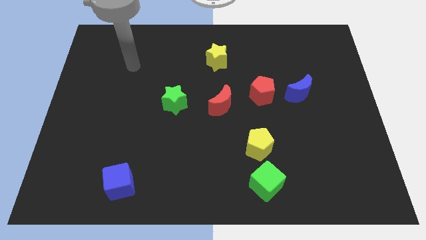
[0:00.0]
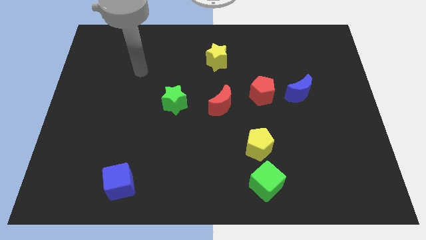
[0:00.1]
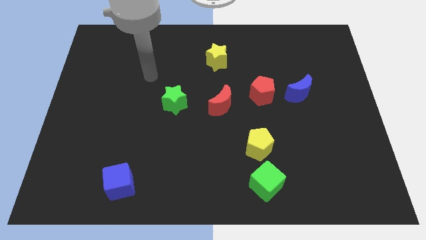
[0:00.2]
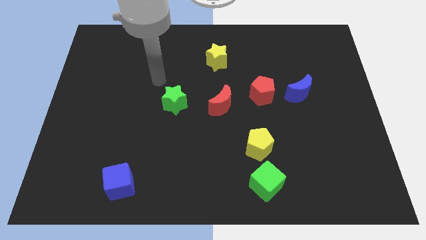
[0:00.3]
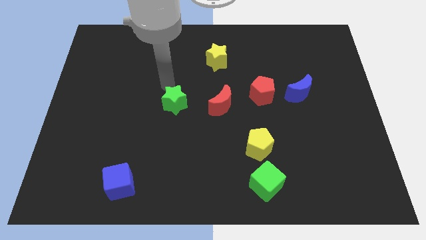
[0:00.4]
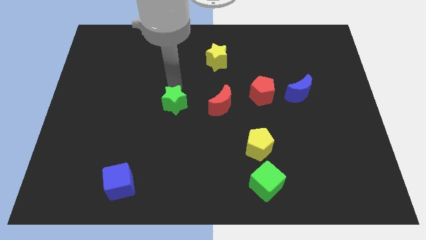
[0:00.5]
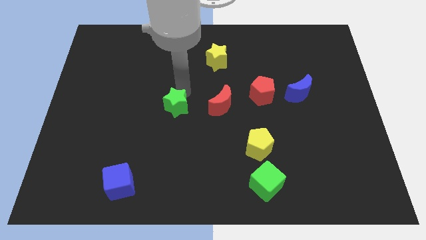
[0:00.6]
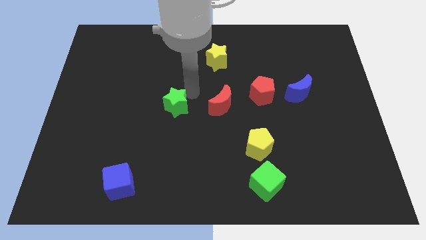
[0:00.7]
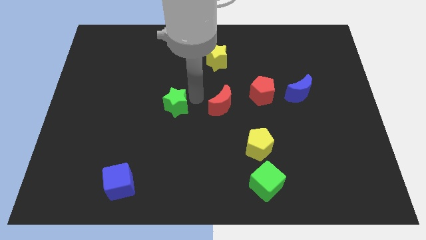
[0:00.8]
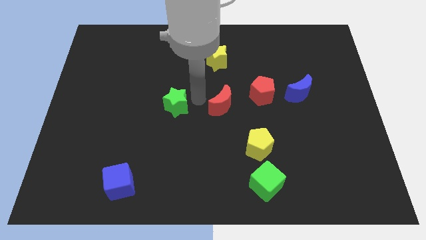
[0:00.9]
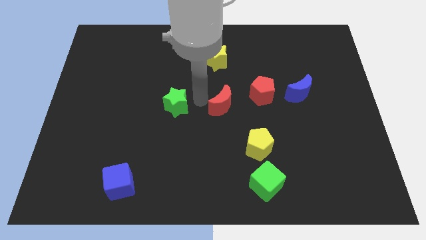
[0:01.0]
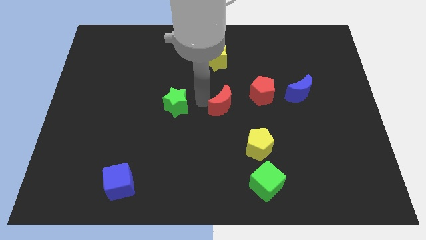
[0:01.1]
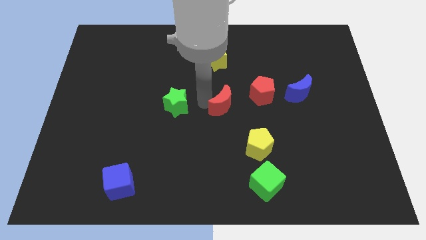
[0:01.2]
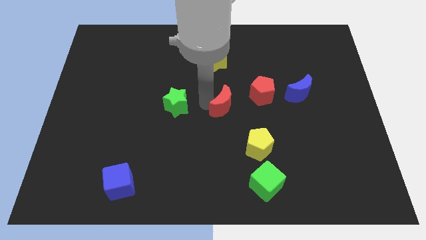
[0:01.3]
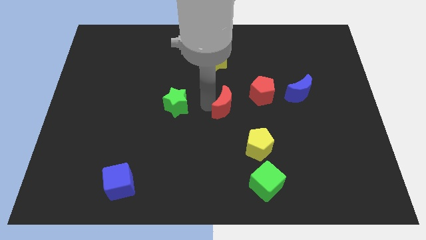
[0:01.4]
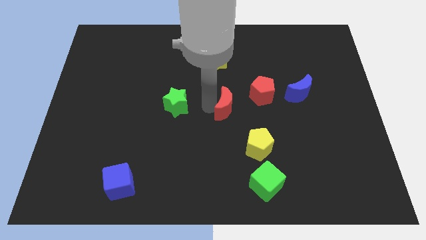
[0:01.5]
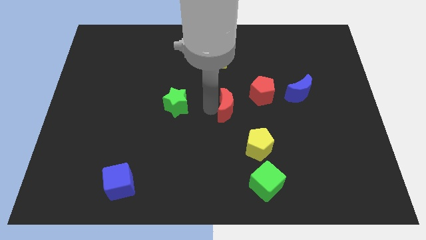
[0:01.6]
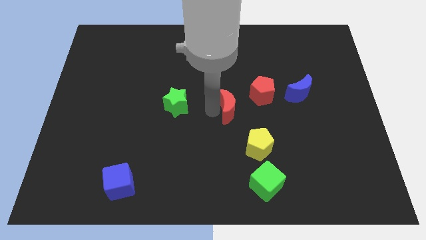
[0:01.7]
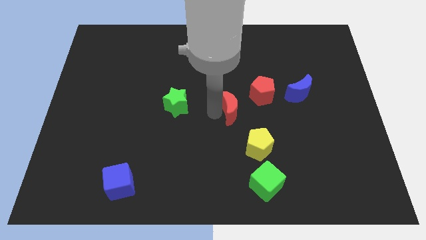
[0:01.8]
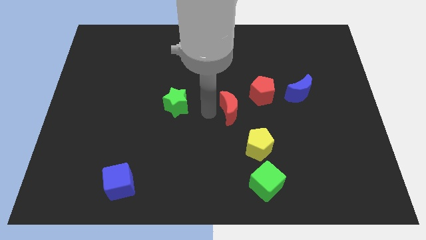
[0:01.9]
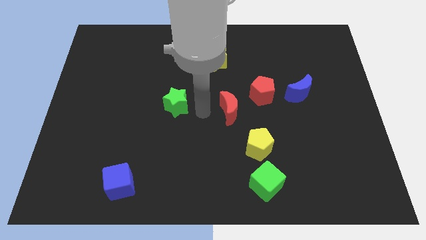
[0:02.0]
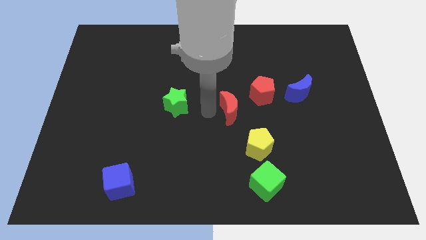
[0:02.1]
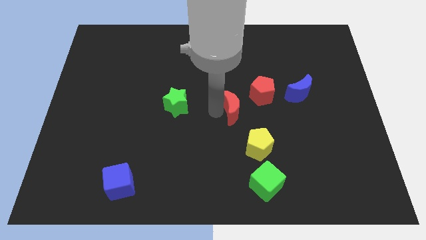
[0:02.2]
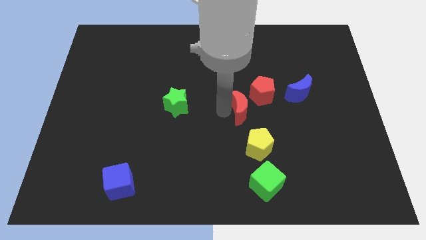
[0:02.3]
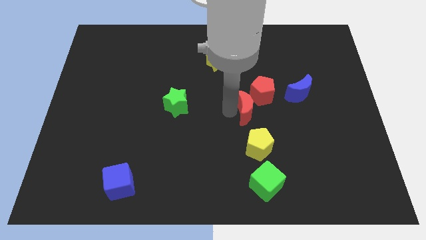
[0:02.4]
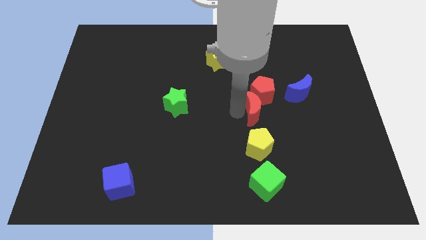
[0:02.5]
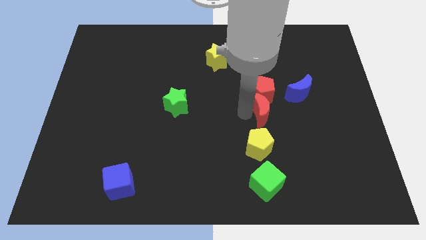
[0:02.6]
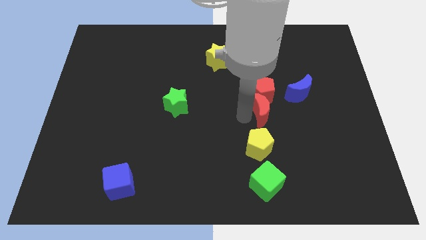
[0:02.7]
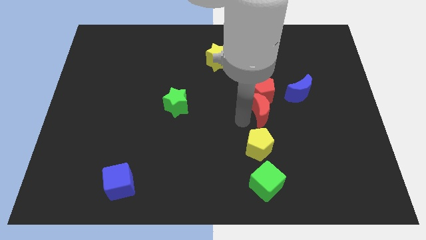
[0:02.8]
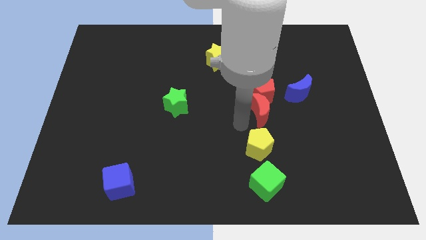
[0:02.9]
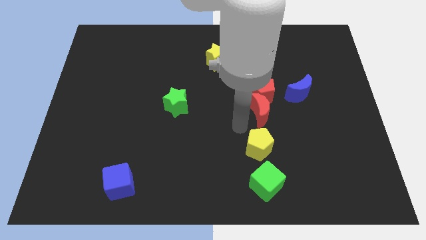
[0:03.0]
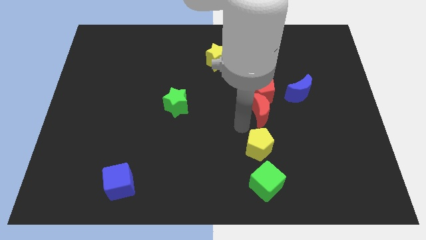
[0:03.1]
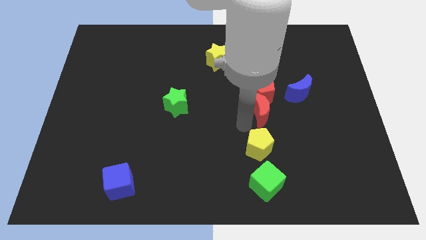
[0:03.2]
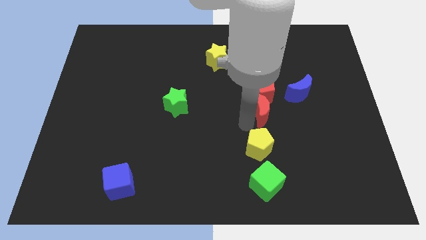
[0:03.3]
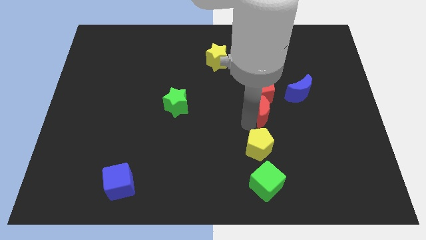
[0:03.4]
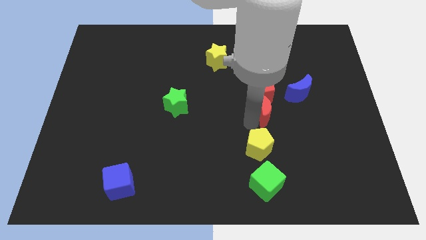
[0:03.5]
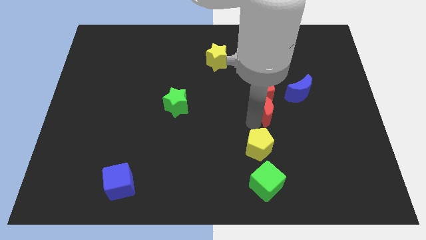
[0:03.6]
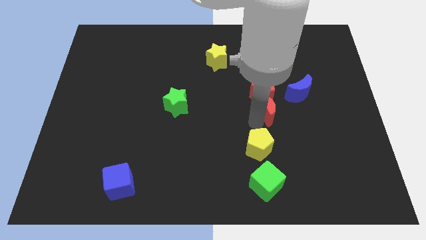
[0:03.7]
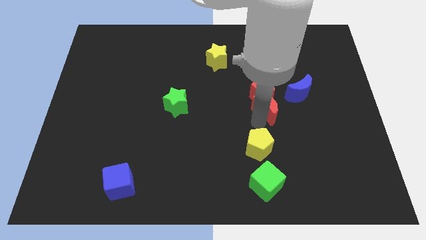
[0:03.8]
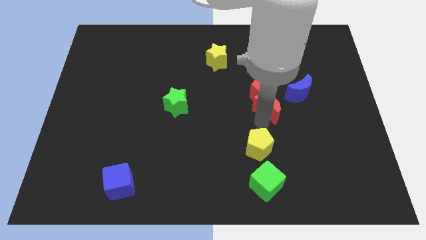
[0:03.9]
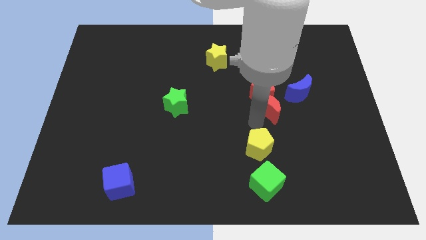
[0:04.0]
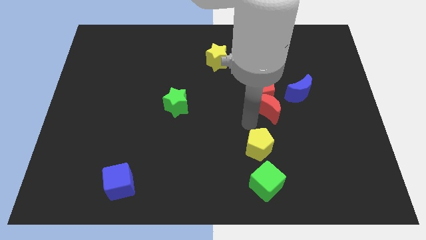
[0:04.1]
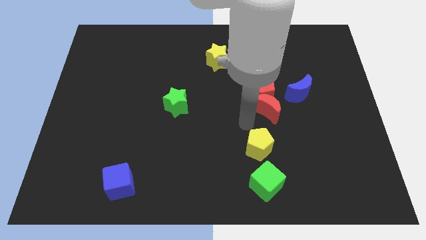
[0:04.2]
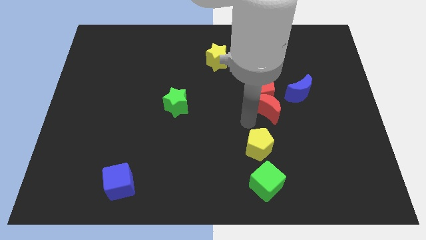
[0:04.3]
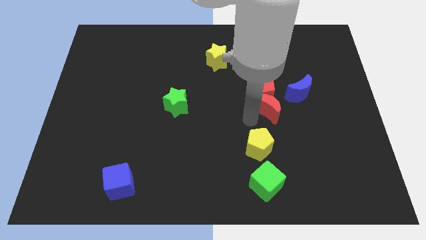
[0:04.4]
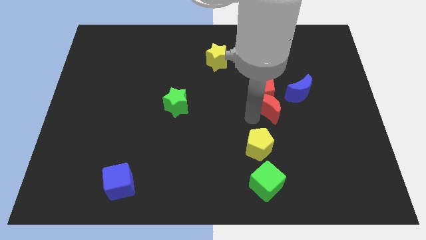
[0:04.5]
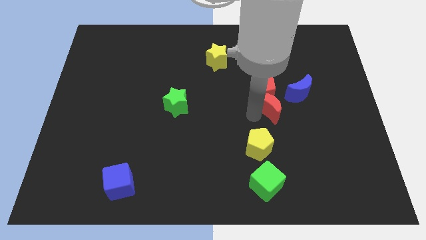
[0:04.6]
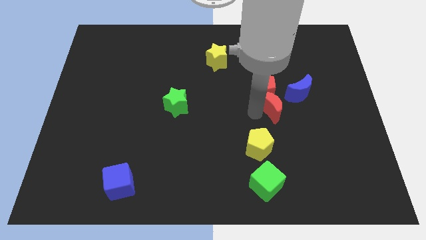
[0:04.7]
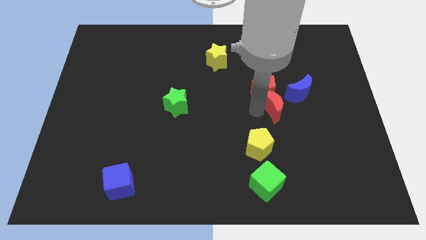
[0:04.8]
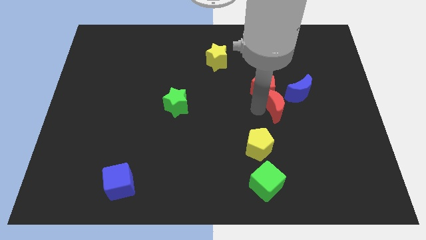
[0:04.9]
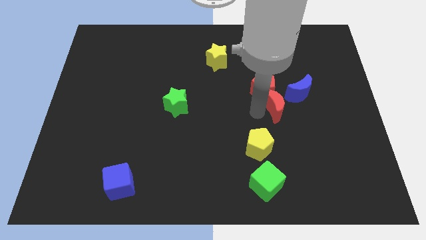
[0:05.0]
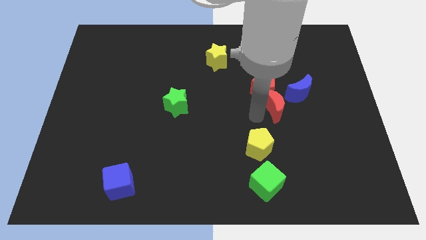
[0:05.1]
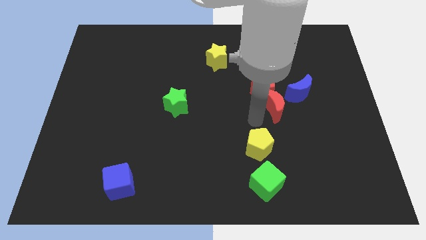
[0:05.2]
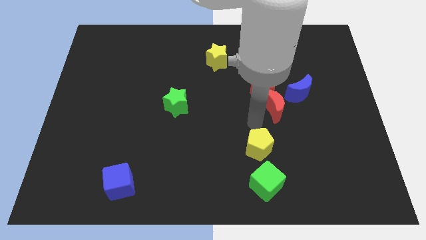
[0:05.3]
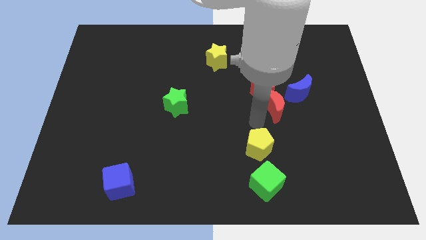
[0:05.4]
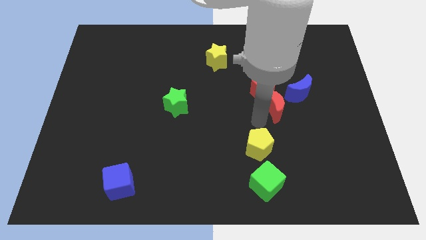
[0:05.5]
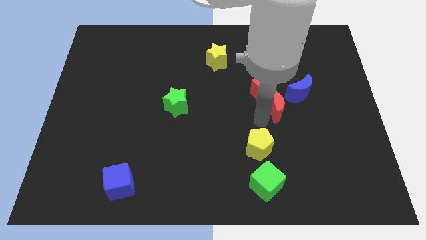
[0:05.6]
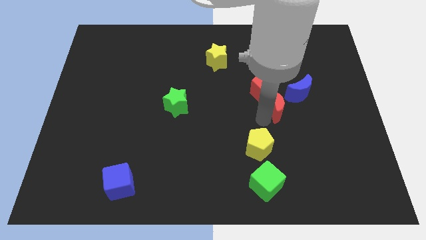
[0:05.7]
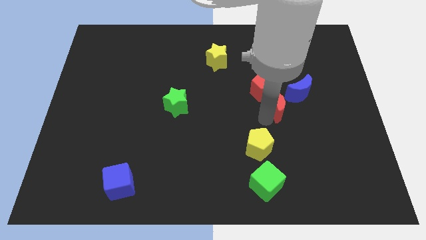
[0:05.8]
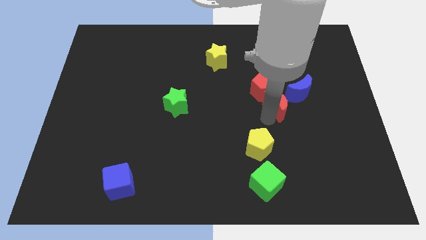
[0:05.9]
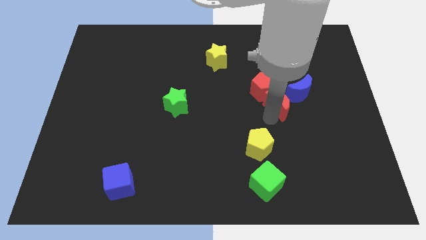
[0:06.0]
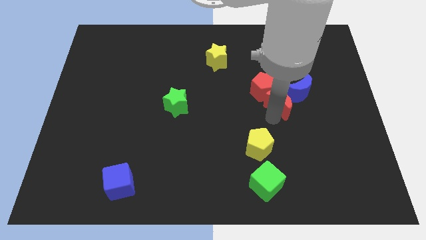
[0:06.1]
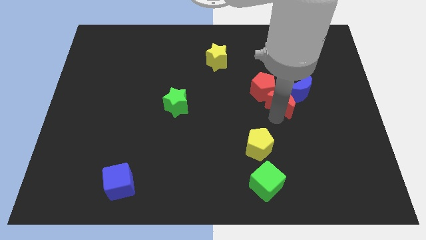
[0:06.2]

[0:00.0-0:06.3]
push the red moon close to the blue moon

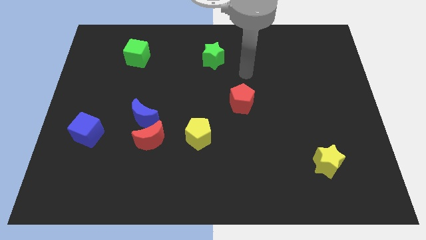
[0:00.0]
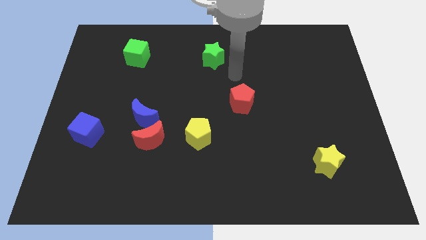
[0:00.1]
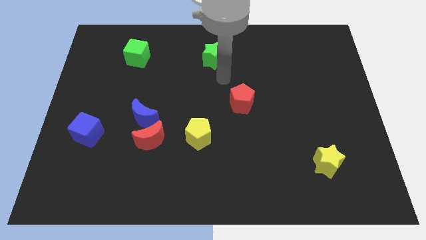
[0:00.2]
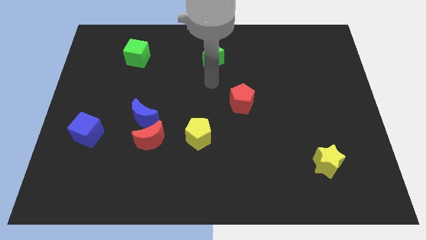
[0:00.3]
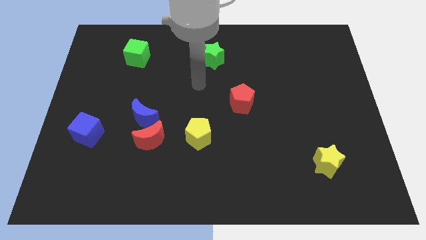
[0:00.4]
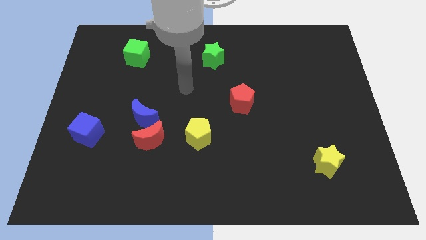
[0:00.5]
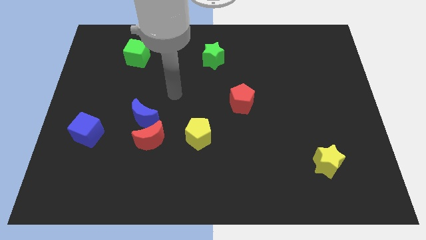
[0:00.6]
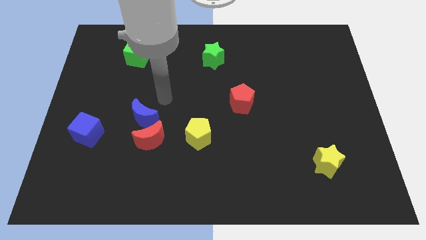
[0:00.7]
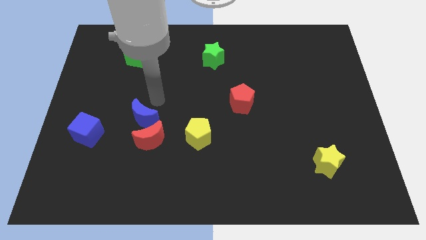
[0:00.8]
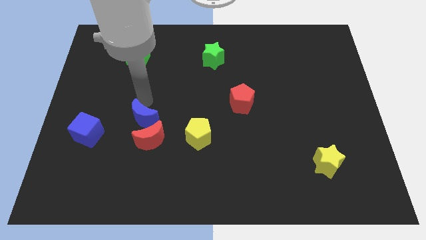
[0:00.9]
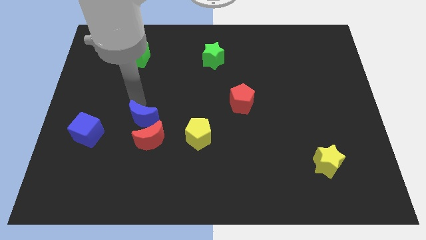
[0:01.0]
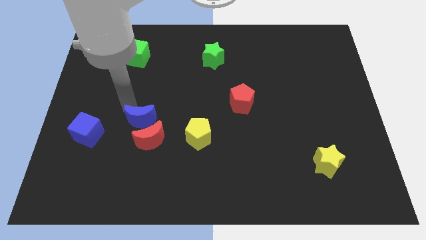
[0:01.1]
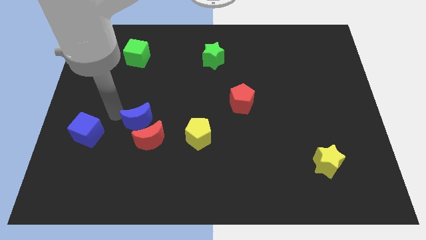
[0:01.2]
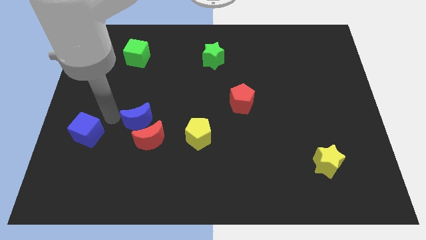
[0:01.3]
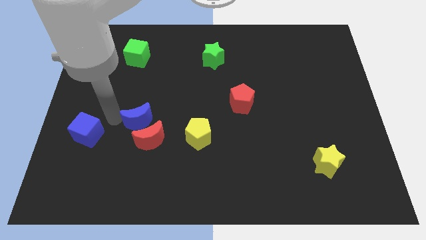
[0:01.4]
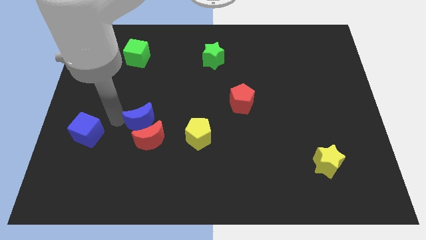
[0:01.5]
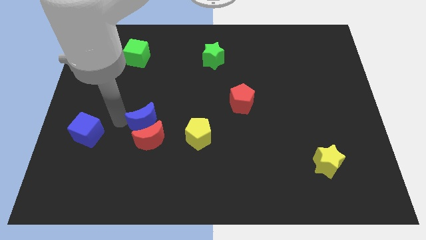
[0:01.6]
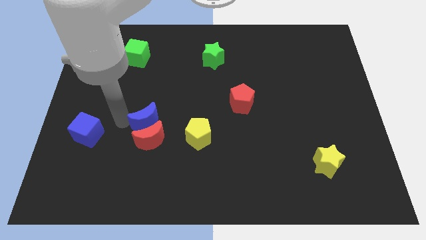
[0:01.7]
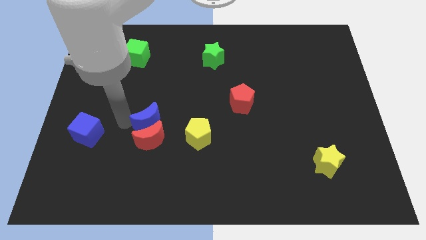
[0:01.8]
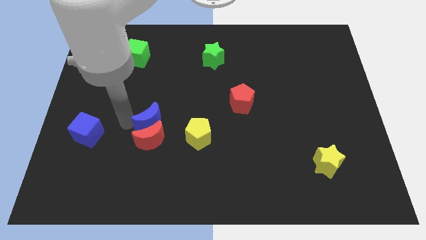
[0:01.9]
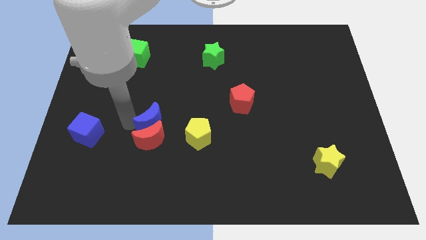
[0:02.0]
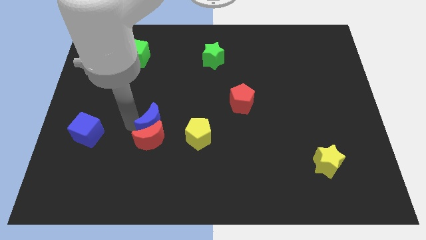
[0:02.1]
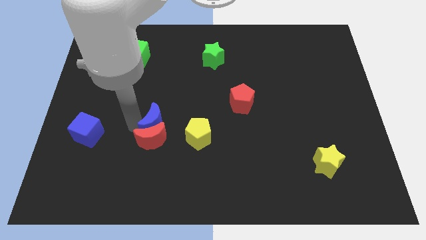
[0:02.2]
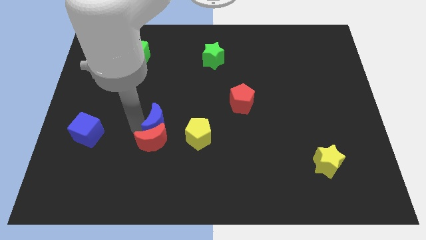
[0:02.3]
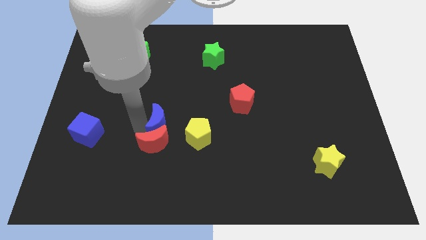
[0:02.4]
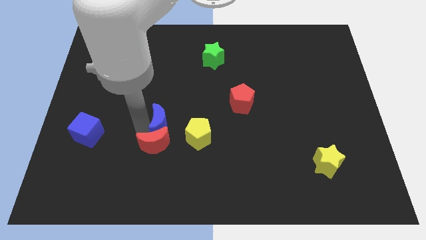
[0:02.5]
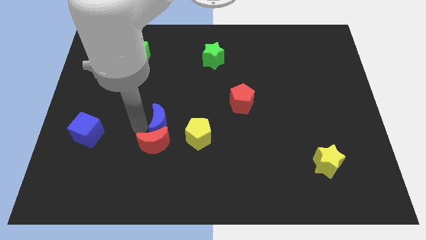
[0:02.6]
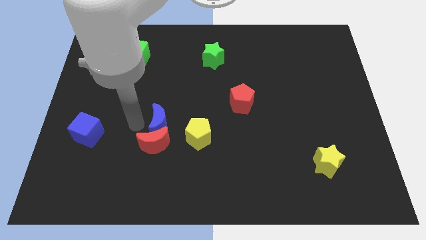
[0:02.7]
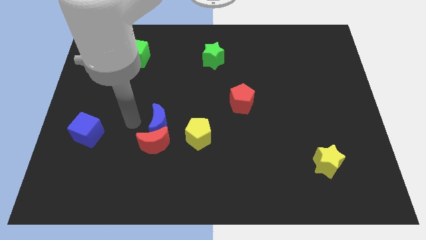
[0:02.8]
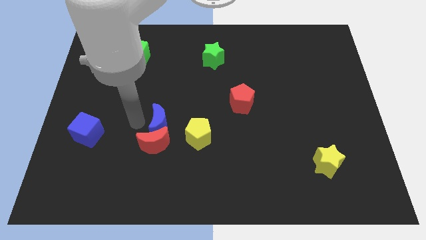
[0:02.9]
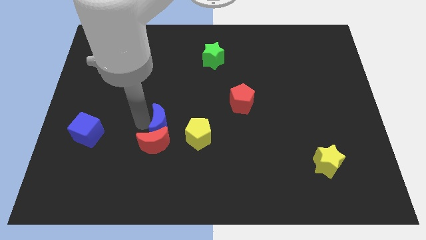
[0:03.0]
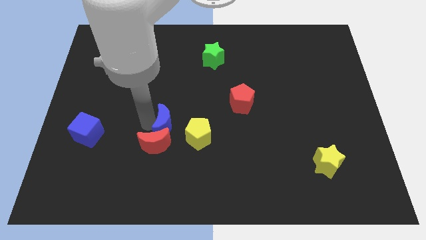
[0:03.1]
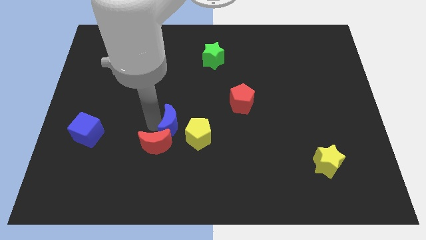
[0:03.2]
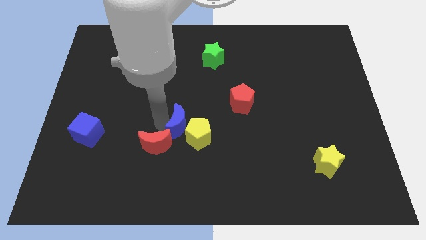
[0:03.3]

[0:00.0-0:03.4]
push the blue moon to the yellow pentagon
